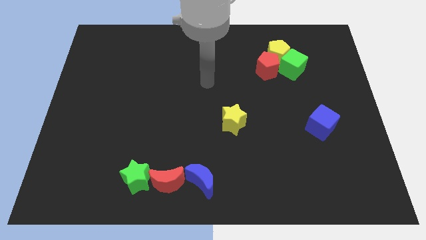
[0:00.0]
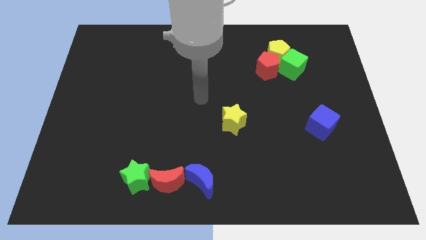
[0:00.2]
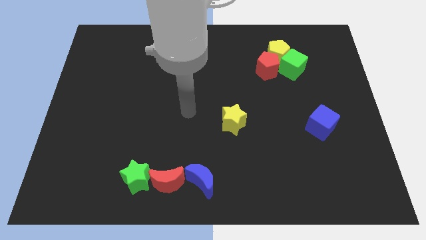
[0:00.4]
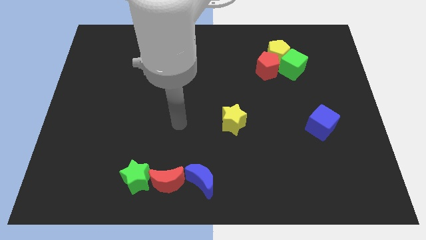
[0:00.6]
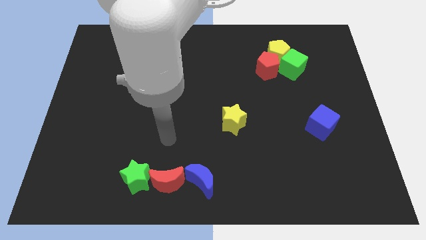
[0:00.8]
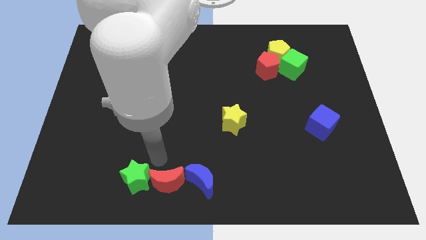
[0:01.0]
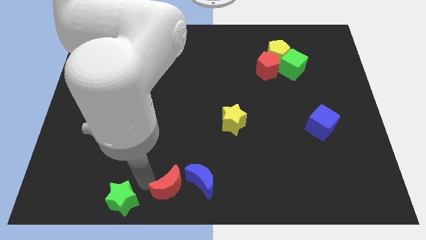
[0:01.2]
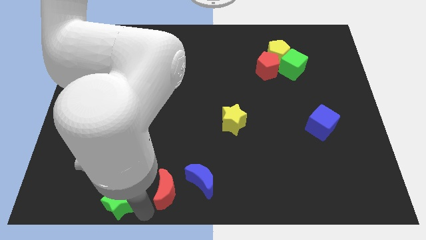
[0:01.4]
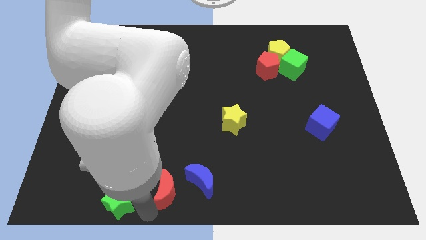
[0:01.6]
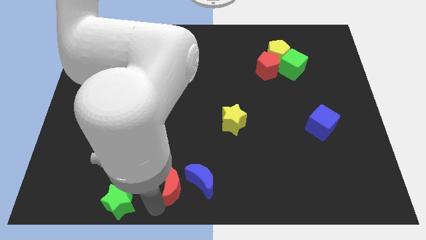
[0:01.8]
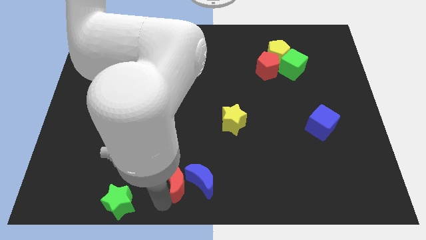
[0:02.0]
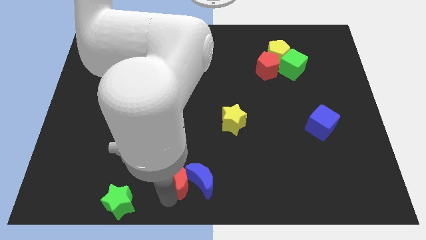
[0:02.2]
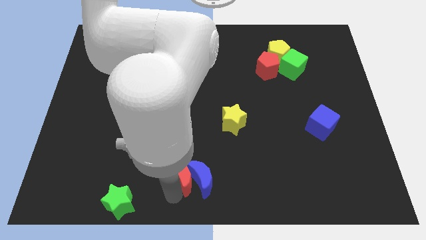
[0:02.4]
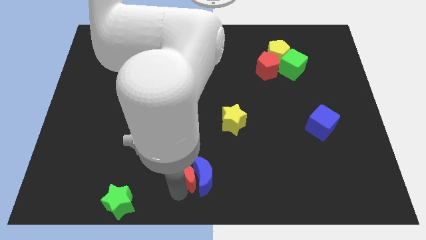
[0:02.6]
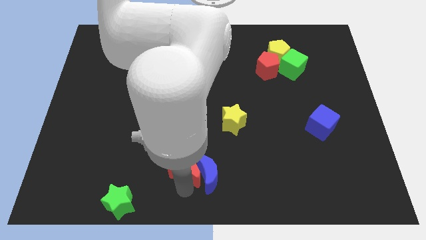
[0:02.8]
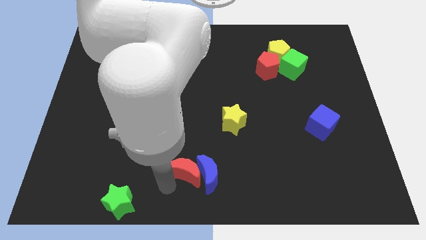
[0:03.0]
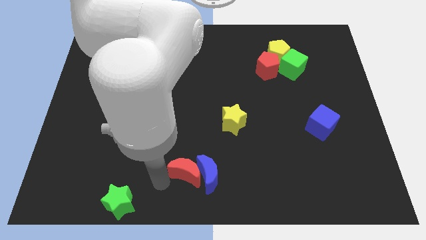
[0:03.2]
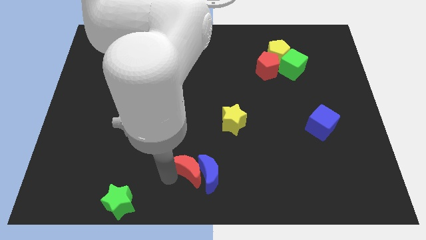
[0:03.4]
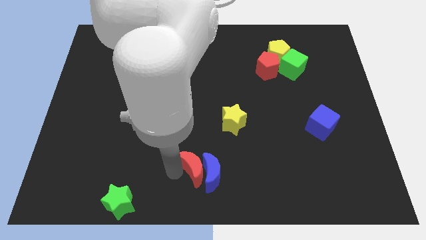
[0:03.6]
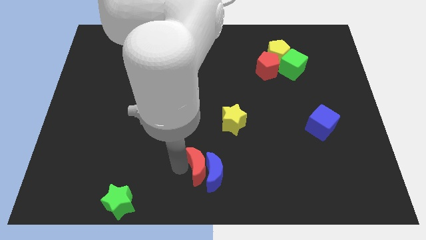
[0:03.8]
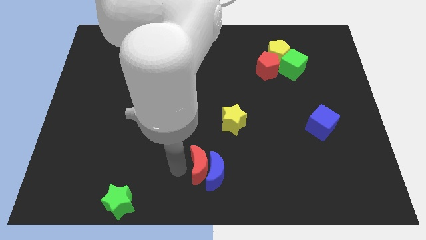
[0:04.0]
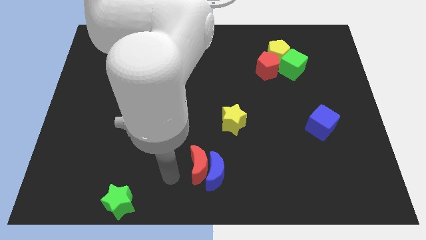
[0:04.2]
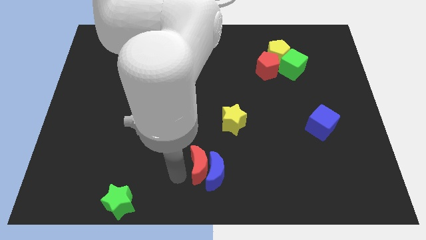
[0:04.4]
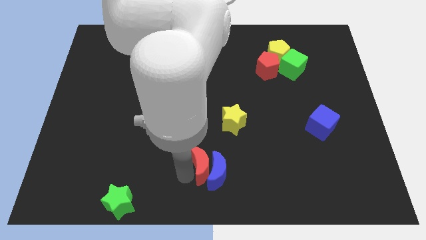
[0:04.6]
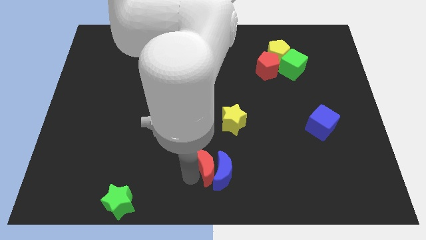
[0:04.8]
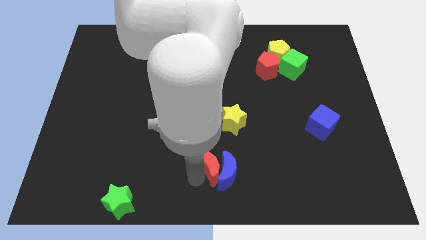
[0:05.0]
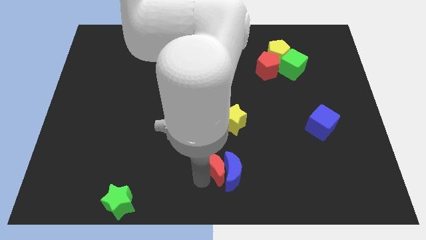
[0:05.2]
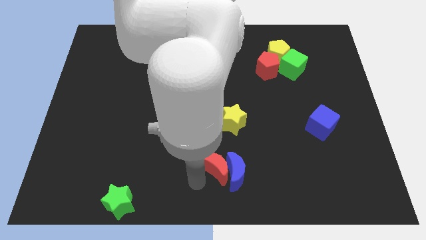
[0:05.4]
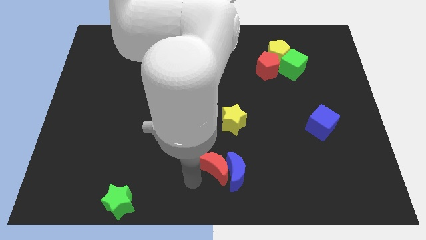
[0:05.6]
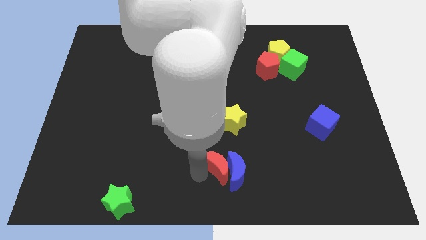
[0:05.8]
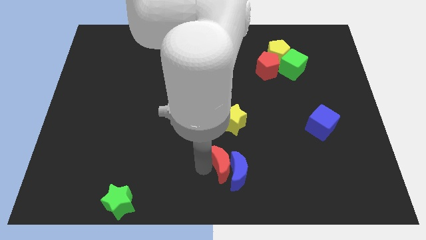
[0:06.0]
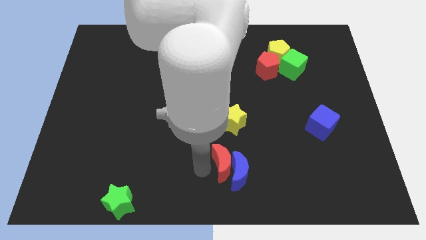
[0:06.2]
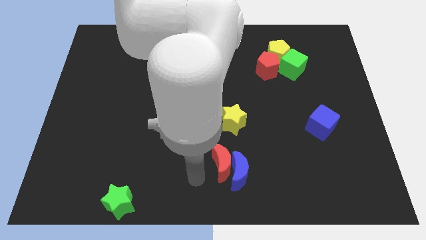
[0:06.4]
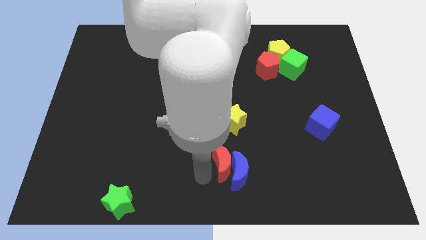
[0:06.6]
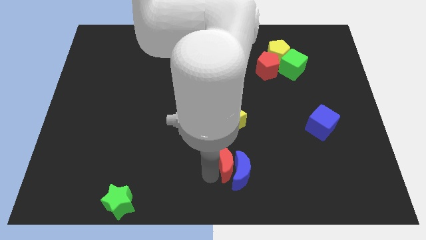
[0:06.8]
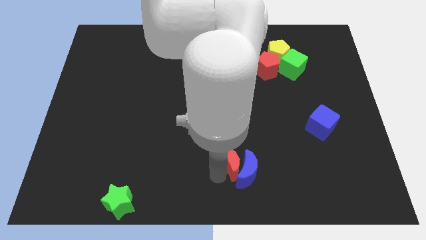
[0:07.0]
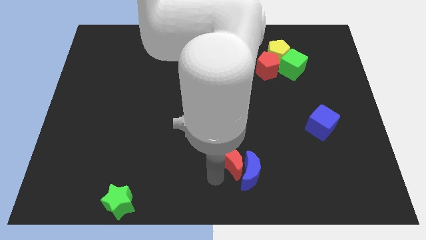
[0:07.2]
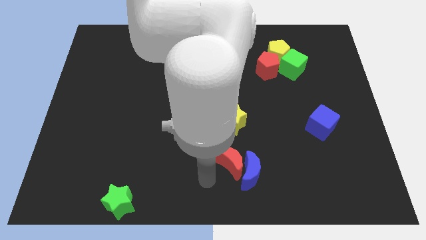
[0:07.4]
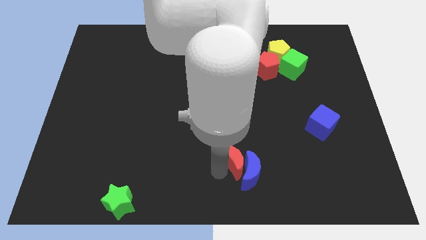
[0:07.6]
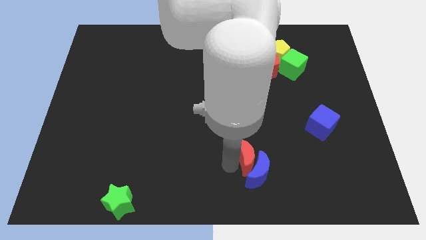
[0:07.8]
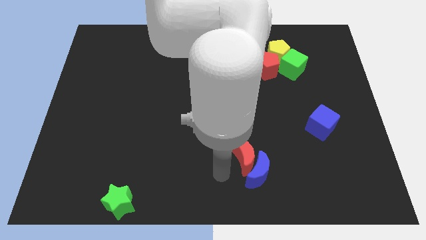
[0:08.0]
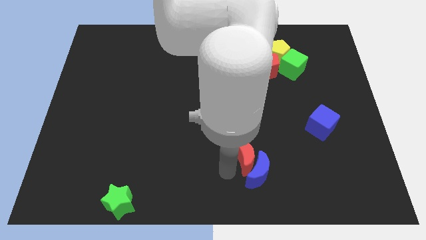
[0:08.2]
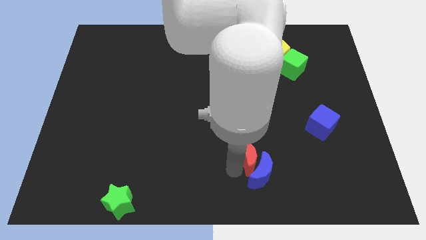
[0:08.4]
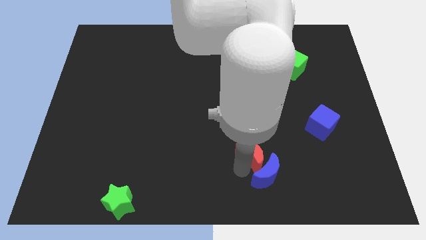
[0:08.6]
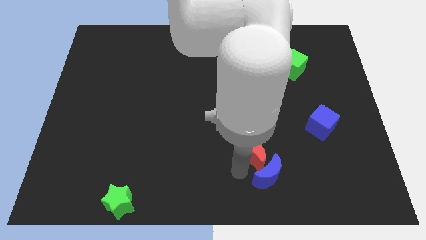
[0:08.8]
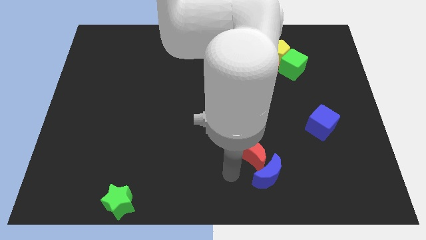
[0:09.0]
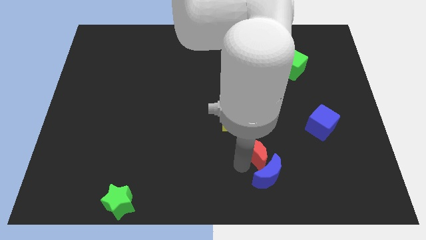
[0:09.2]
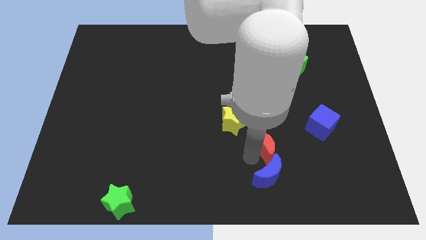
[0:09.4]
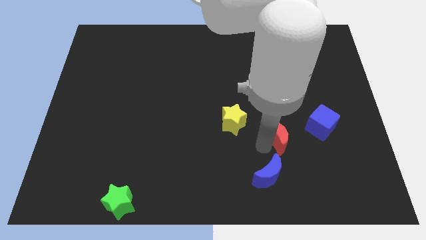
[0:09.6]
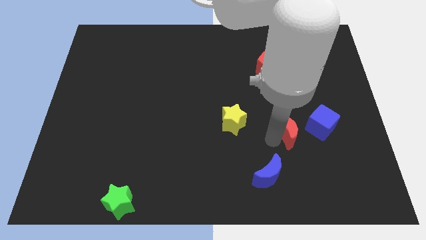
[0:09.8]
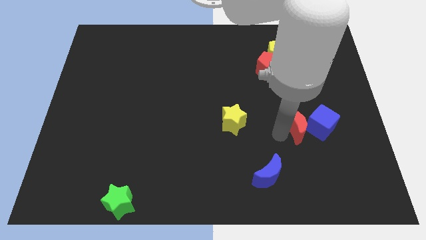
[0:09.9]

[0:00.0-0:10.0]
push the red moon close to the blue cube

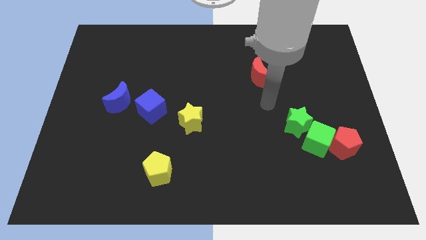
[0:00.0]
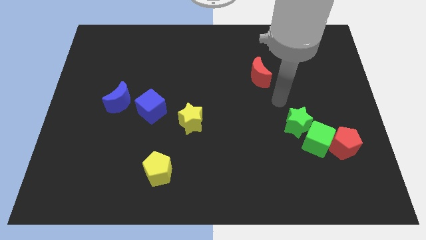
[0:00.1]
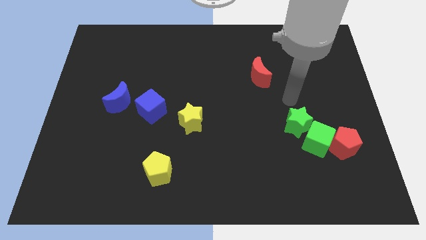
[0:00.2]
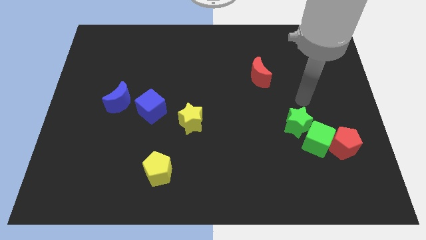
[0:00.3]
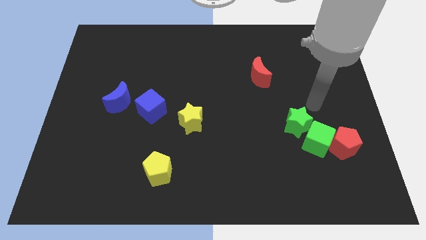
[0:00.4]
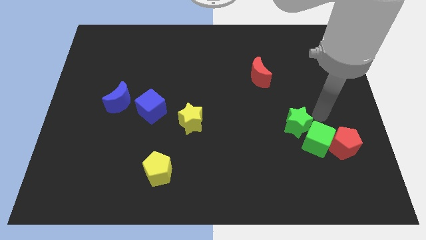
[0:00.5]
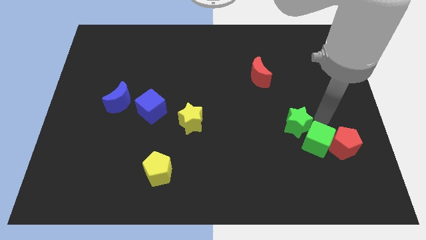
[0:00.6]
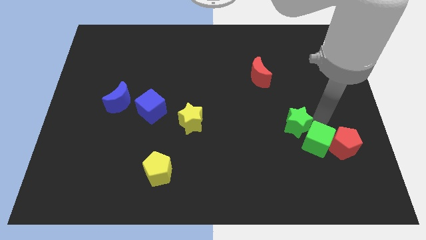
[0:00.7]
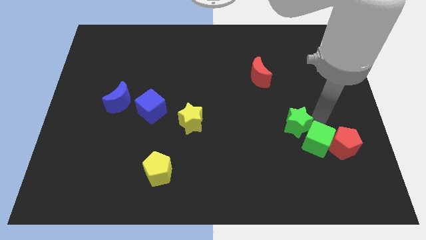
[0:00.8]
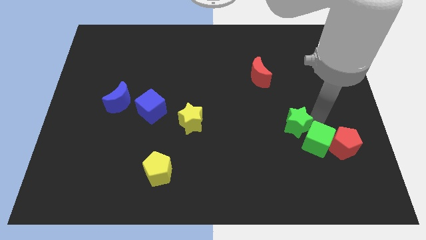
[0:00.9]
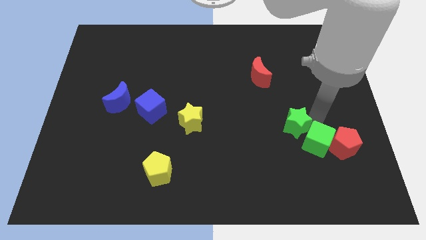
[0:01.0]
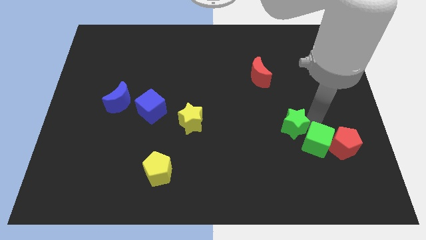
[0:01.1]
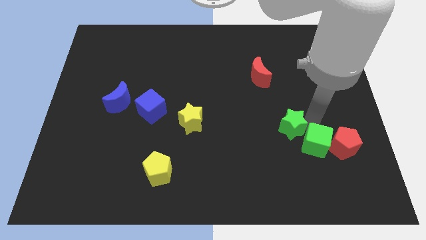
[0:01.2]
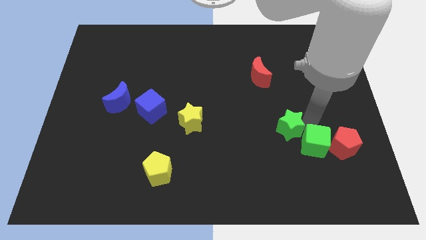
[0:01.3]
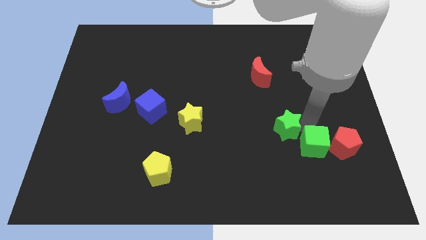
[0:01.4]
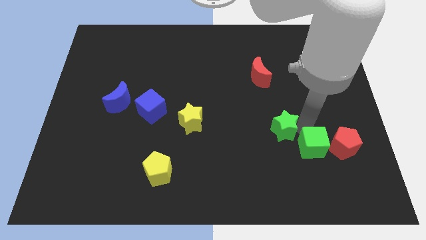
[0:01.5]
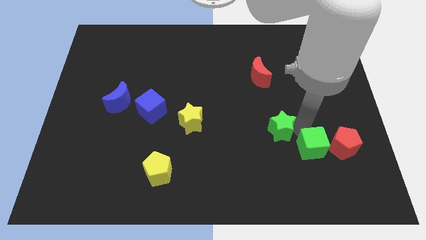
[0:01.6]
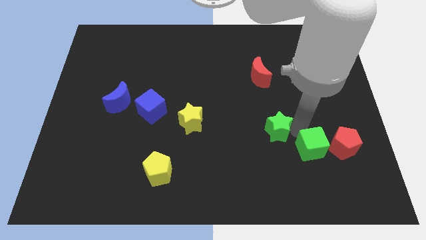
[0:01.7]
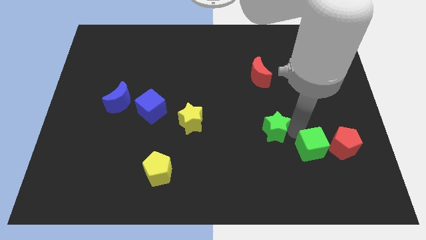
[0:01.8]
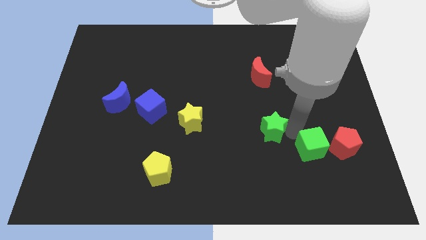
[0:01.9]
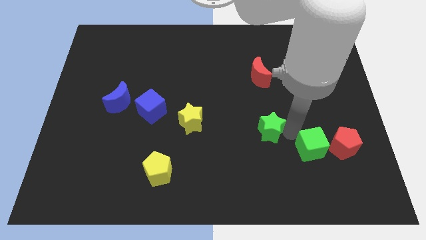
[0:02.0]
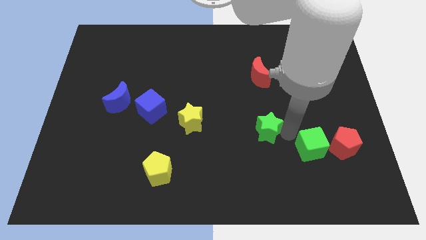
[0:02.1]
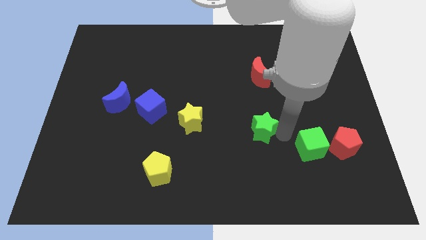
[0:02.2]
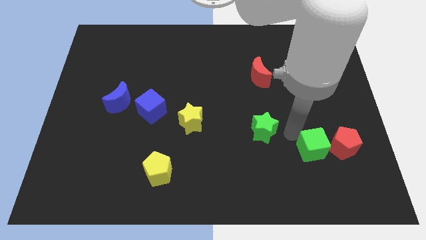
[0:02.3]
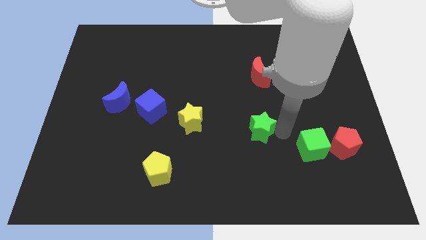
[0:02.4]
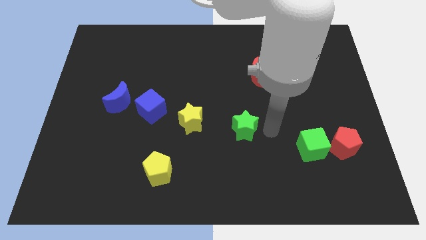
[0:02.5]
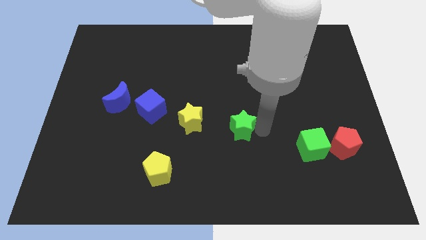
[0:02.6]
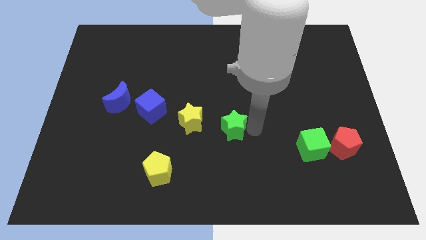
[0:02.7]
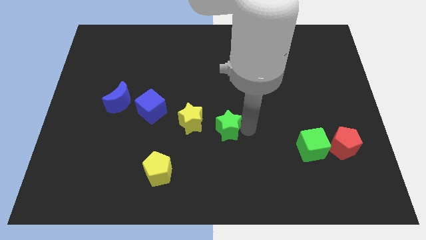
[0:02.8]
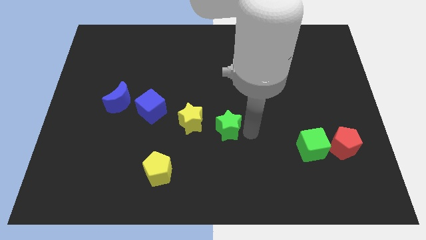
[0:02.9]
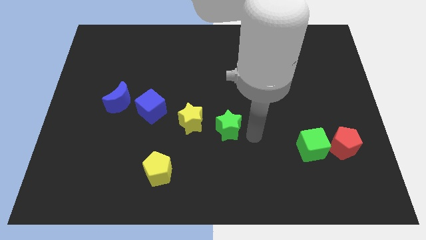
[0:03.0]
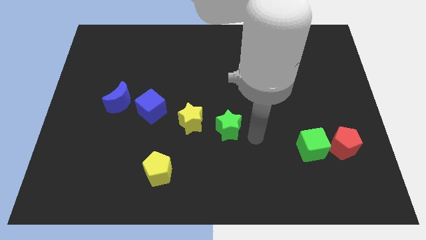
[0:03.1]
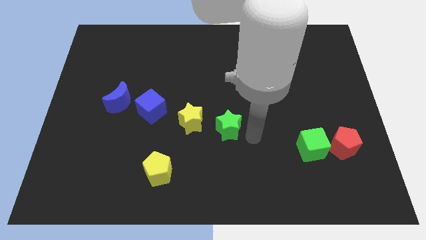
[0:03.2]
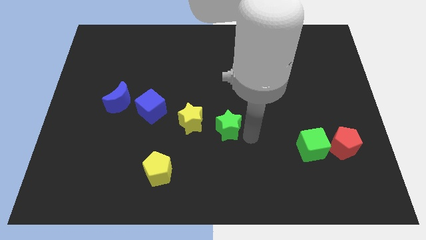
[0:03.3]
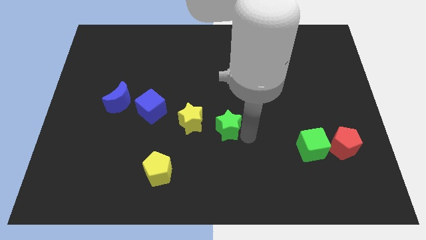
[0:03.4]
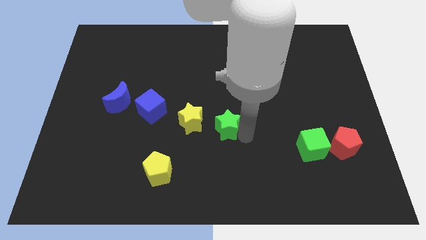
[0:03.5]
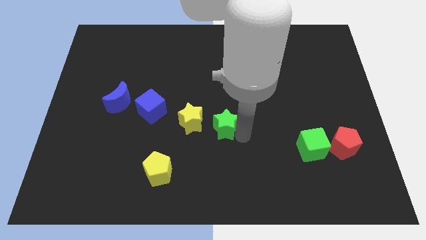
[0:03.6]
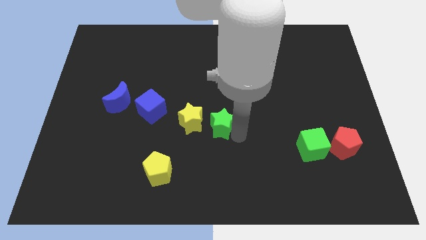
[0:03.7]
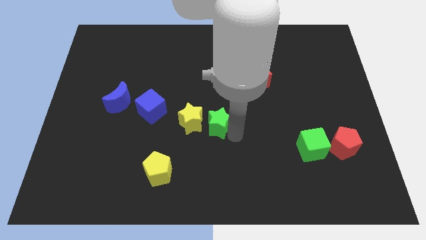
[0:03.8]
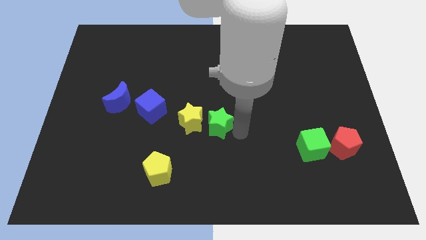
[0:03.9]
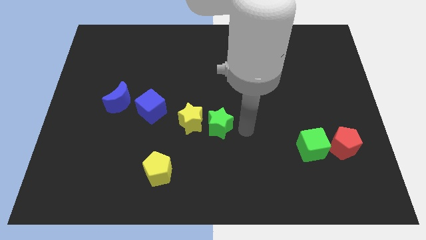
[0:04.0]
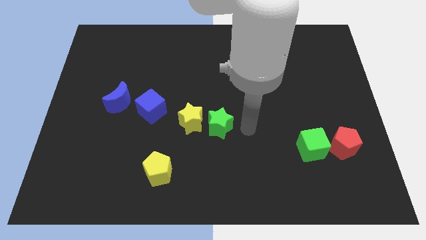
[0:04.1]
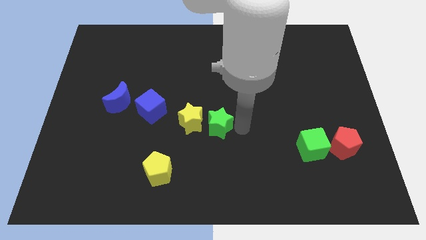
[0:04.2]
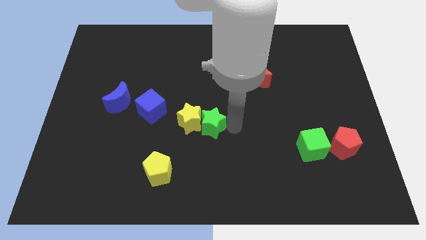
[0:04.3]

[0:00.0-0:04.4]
put the green star to the yellow star
